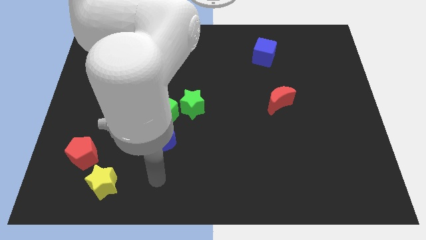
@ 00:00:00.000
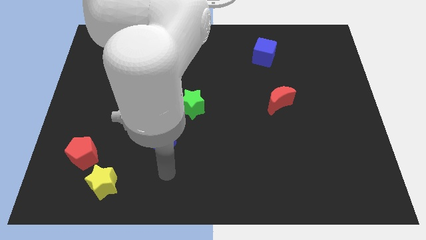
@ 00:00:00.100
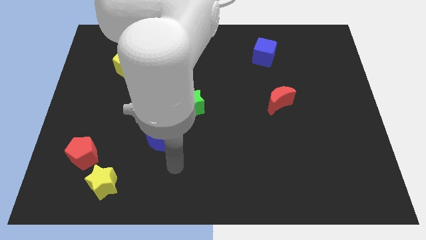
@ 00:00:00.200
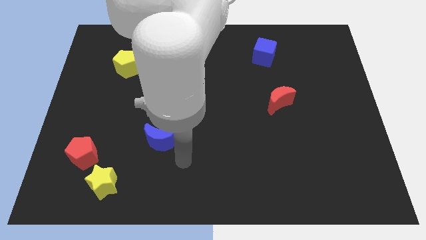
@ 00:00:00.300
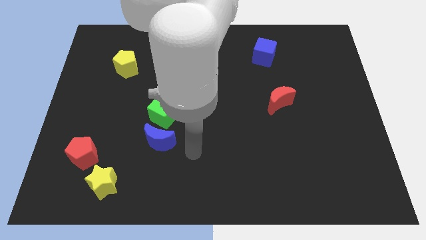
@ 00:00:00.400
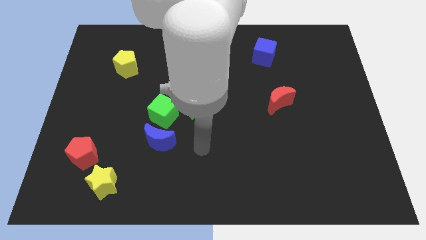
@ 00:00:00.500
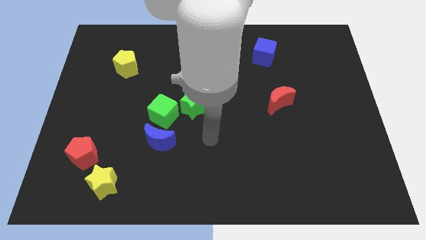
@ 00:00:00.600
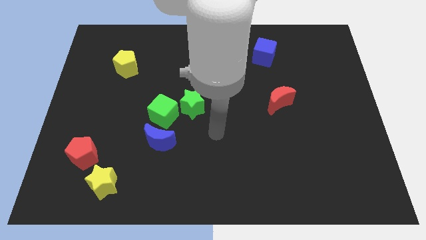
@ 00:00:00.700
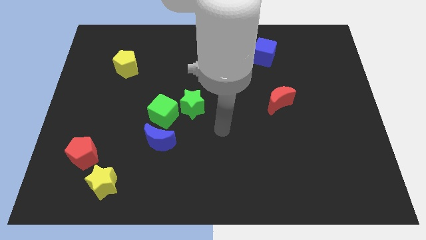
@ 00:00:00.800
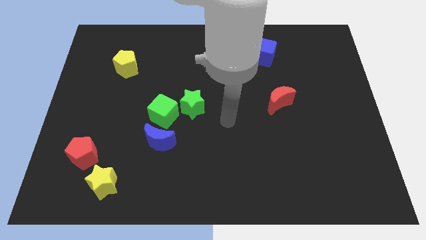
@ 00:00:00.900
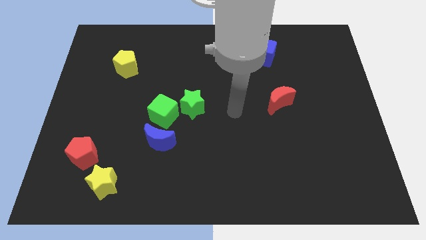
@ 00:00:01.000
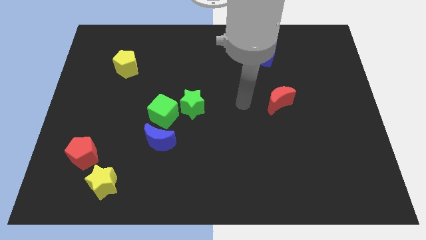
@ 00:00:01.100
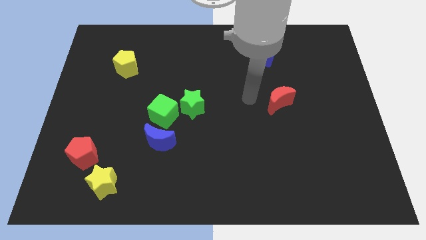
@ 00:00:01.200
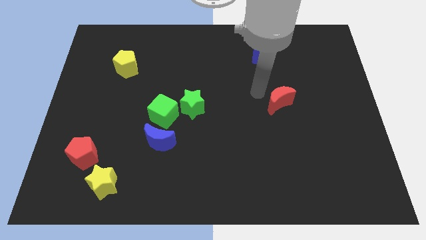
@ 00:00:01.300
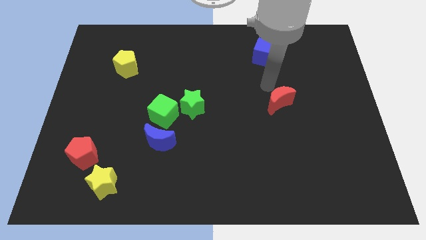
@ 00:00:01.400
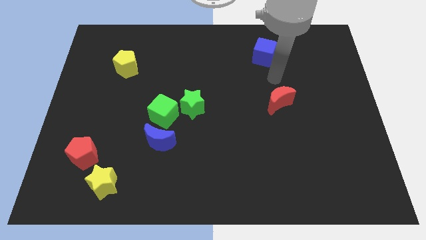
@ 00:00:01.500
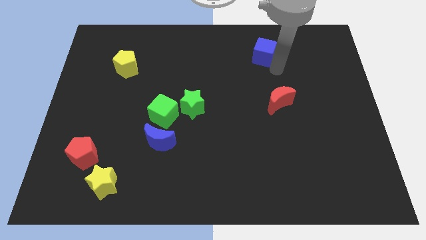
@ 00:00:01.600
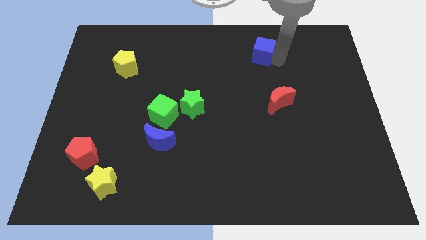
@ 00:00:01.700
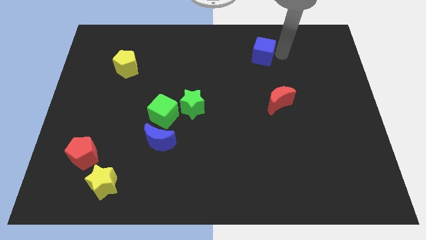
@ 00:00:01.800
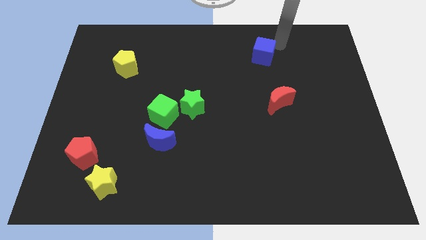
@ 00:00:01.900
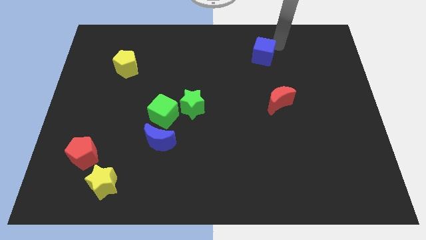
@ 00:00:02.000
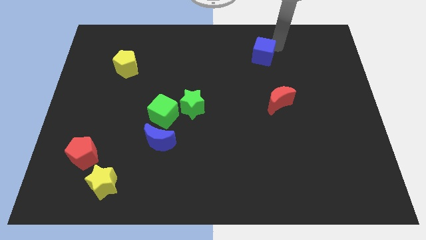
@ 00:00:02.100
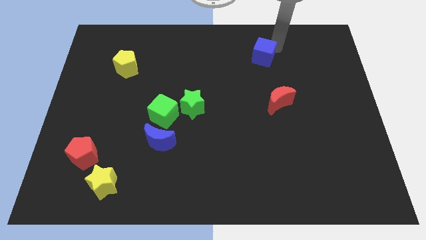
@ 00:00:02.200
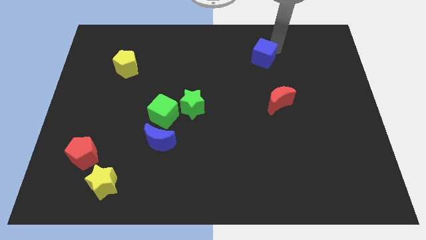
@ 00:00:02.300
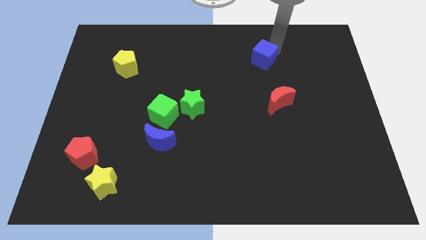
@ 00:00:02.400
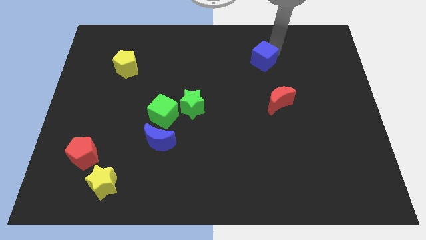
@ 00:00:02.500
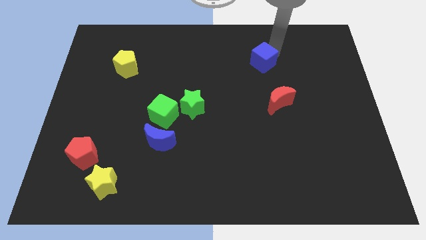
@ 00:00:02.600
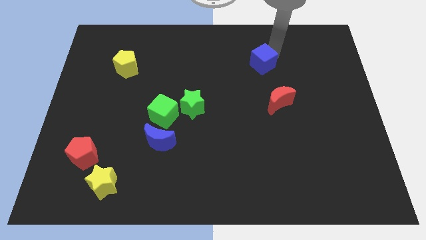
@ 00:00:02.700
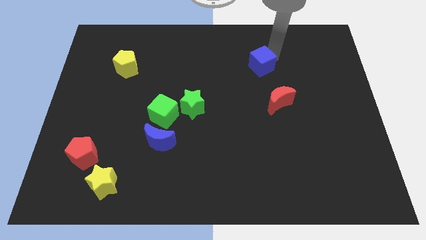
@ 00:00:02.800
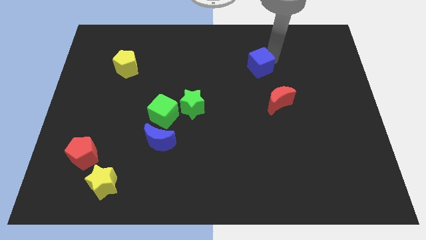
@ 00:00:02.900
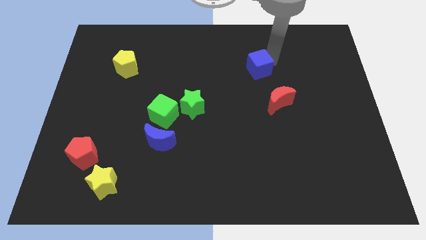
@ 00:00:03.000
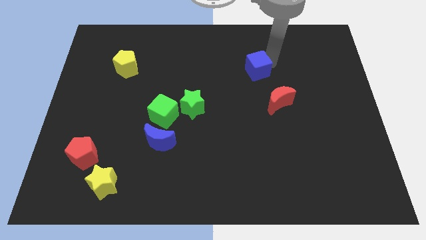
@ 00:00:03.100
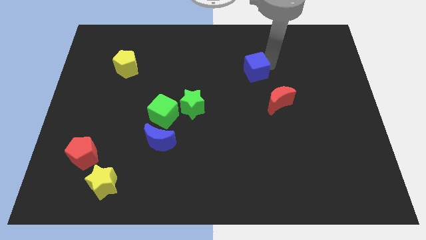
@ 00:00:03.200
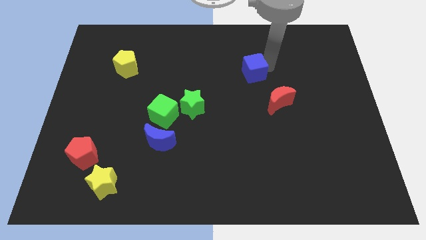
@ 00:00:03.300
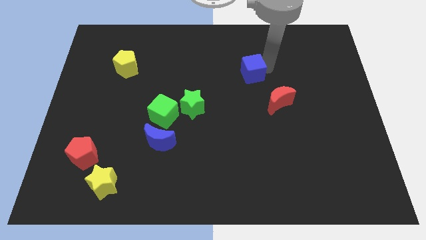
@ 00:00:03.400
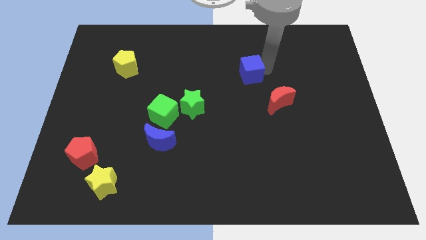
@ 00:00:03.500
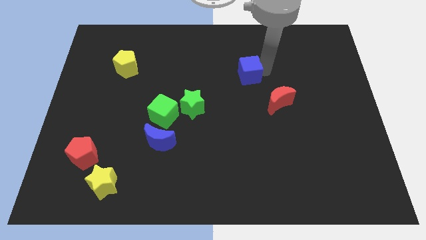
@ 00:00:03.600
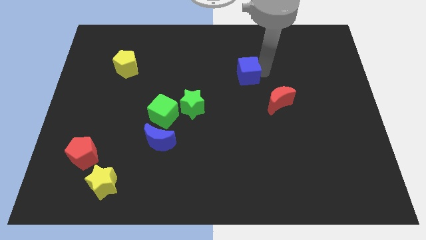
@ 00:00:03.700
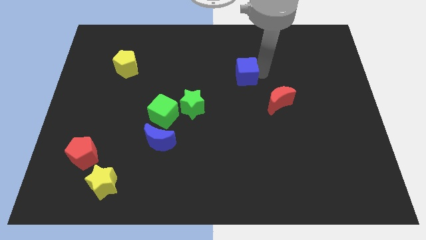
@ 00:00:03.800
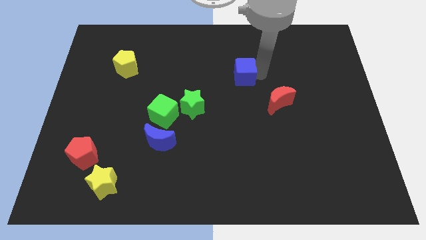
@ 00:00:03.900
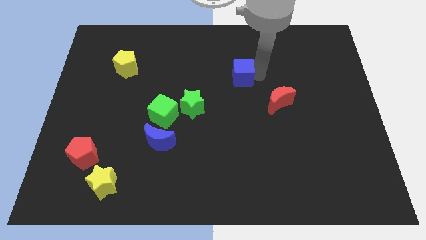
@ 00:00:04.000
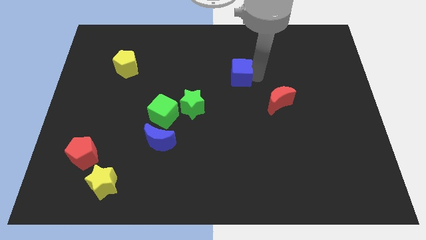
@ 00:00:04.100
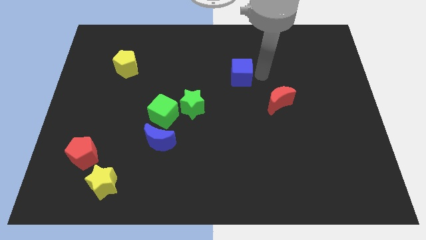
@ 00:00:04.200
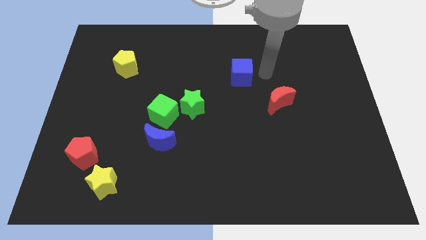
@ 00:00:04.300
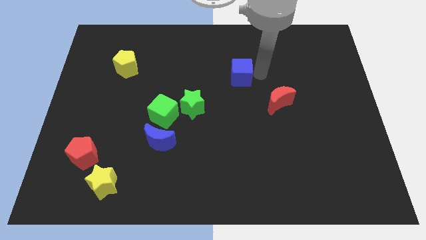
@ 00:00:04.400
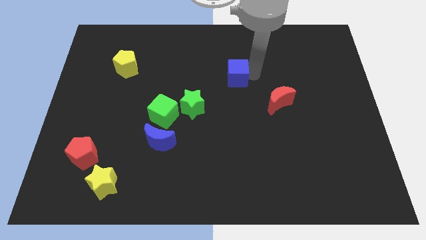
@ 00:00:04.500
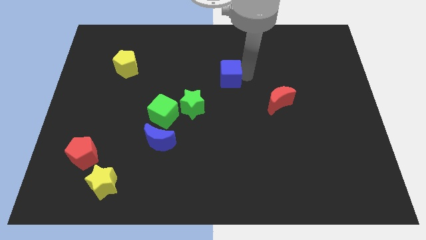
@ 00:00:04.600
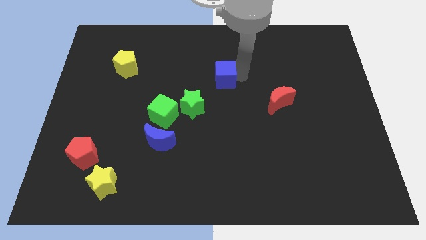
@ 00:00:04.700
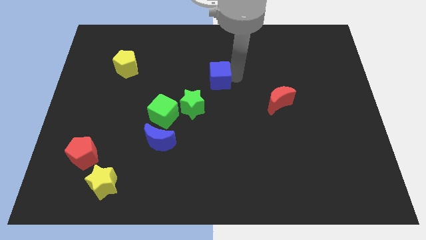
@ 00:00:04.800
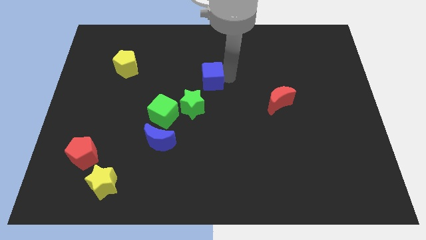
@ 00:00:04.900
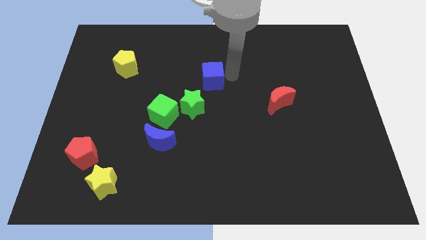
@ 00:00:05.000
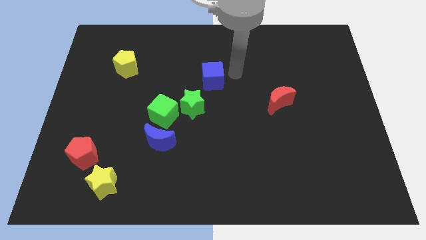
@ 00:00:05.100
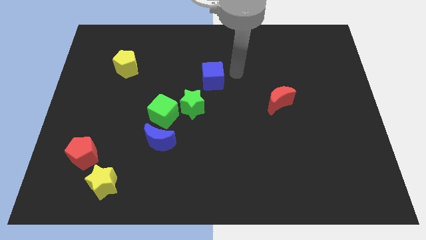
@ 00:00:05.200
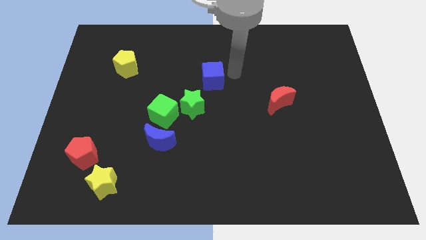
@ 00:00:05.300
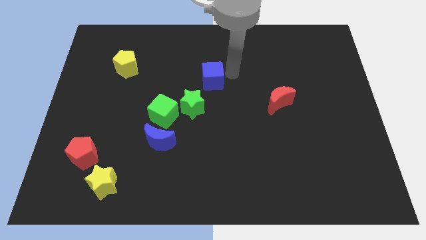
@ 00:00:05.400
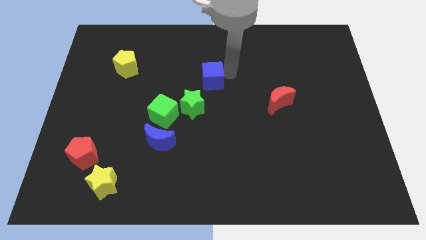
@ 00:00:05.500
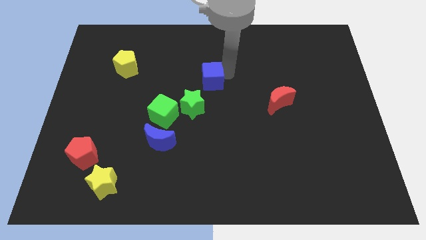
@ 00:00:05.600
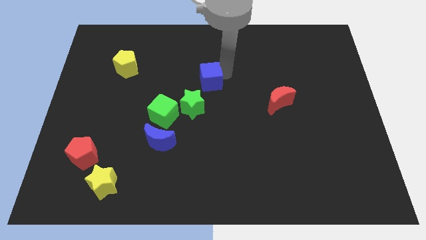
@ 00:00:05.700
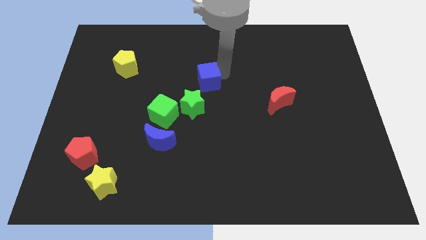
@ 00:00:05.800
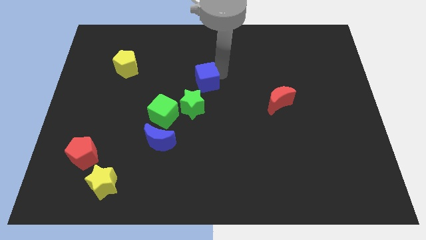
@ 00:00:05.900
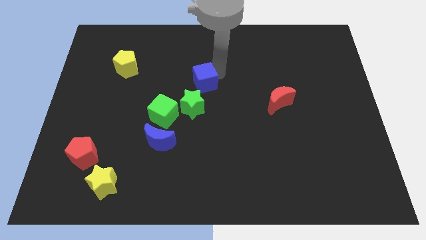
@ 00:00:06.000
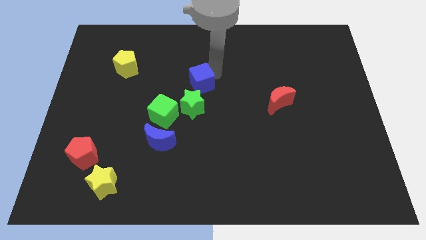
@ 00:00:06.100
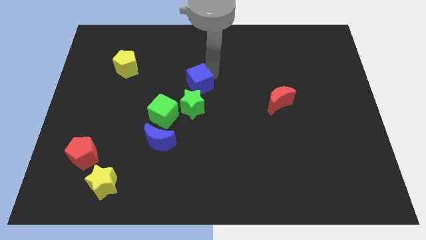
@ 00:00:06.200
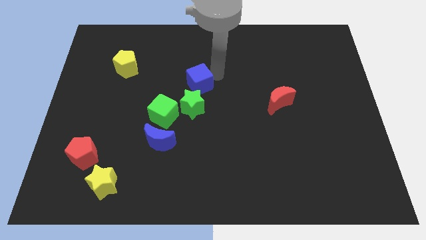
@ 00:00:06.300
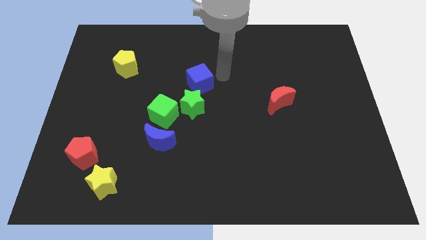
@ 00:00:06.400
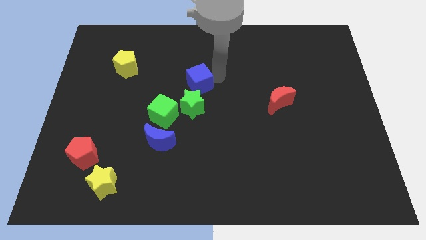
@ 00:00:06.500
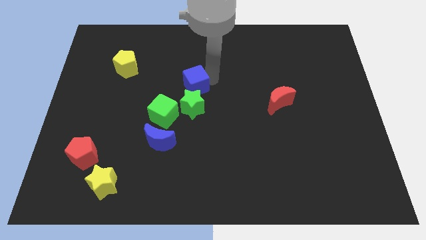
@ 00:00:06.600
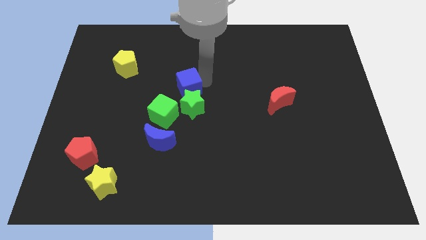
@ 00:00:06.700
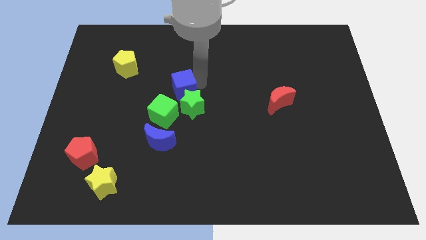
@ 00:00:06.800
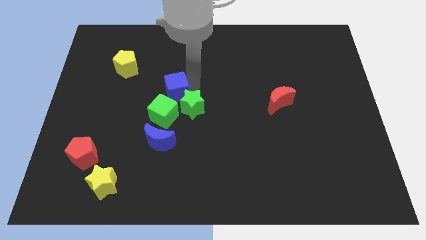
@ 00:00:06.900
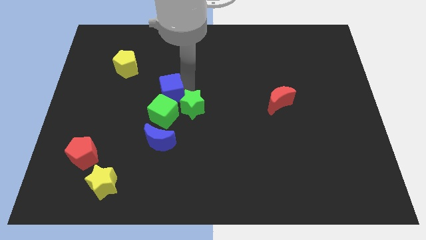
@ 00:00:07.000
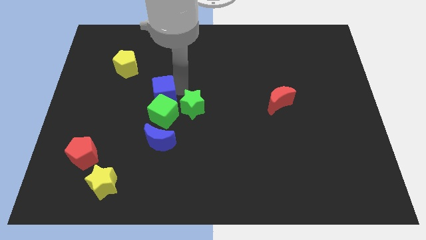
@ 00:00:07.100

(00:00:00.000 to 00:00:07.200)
push the blue cube to the top left of the green cube

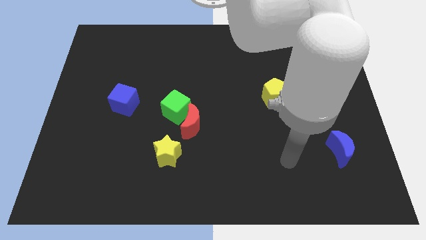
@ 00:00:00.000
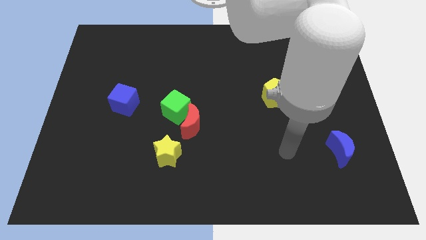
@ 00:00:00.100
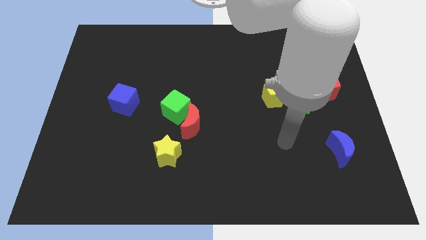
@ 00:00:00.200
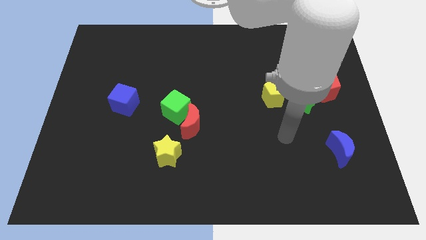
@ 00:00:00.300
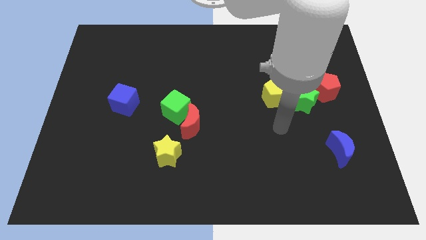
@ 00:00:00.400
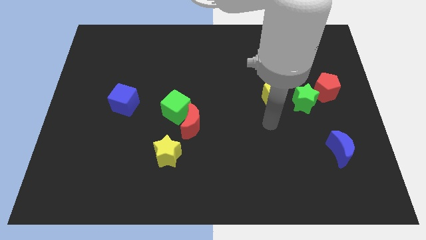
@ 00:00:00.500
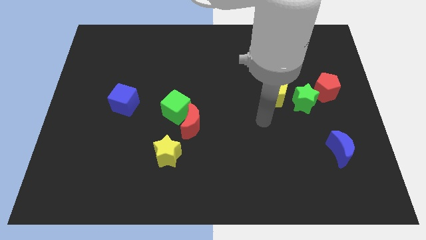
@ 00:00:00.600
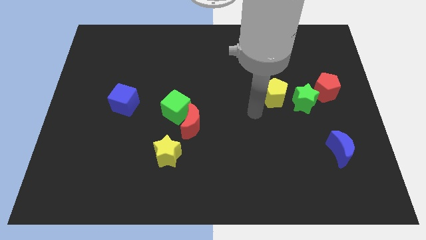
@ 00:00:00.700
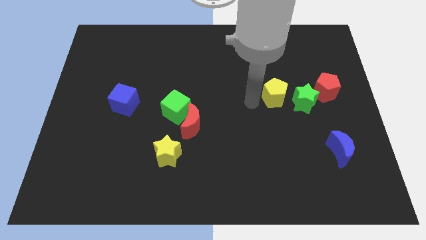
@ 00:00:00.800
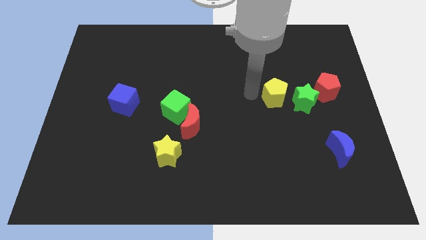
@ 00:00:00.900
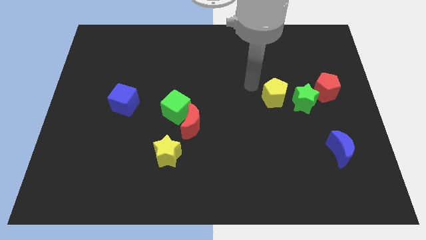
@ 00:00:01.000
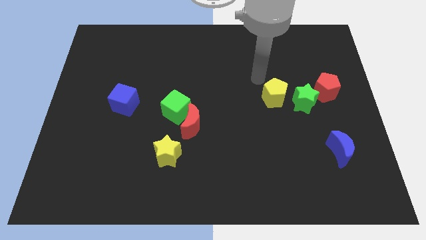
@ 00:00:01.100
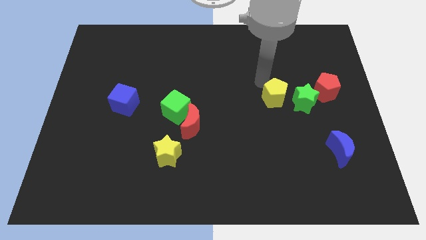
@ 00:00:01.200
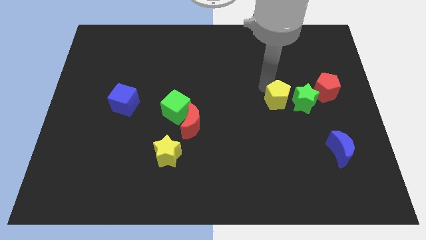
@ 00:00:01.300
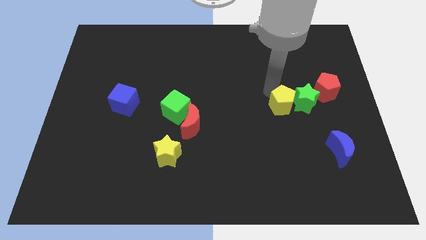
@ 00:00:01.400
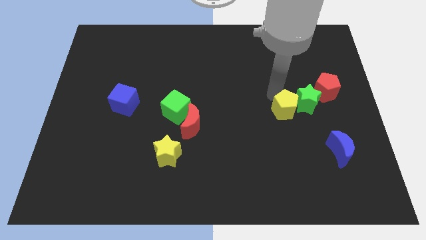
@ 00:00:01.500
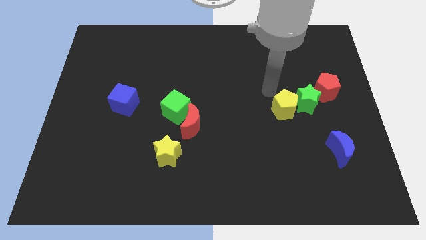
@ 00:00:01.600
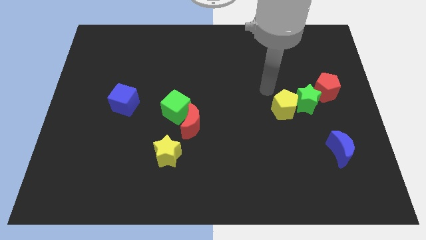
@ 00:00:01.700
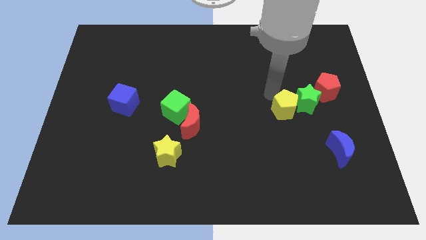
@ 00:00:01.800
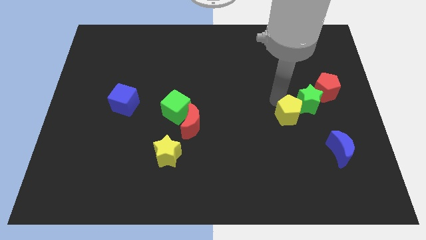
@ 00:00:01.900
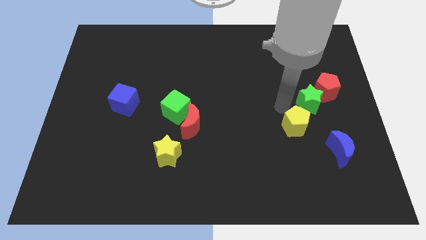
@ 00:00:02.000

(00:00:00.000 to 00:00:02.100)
put the yellow pentagon to the bottom of the green star
